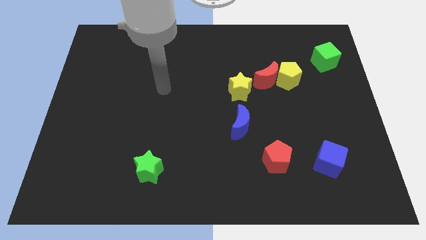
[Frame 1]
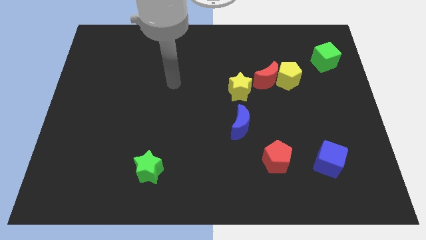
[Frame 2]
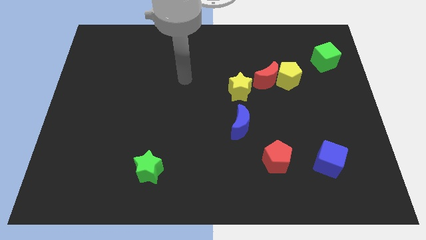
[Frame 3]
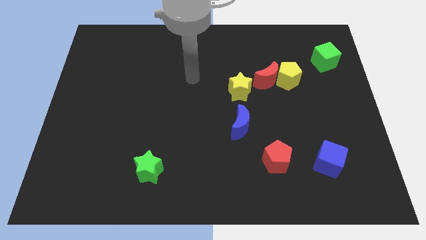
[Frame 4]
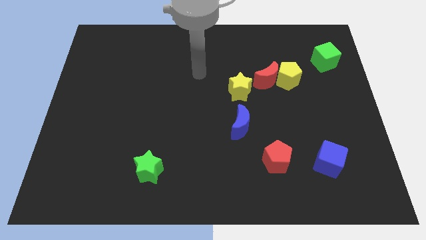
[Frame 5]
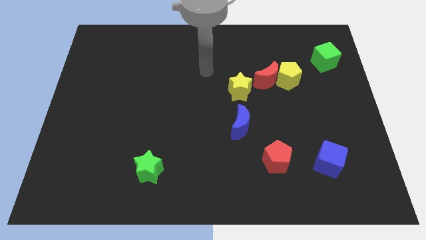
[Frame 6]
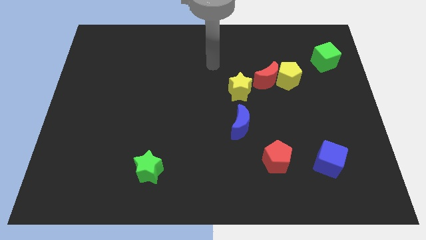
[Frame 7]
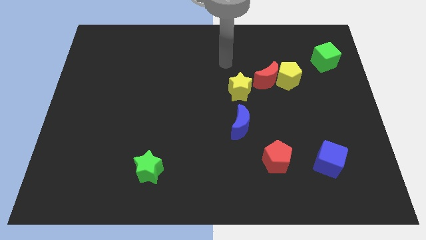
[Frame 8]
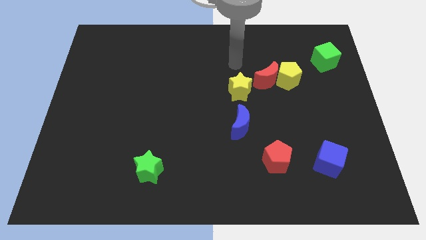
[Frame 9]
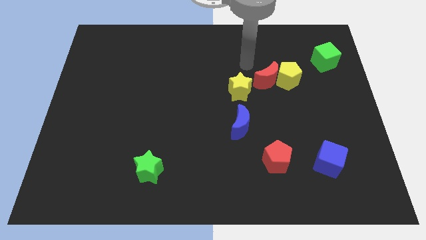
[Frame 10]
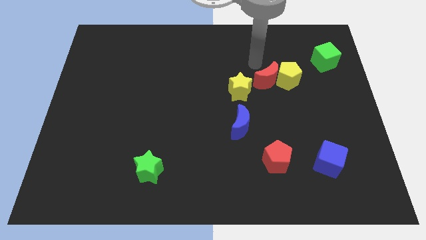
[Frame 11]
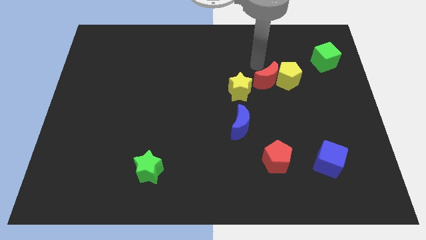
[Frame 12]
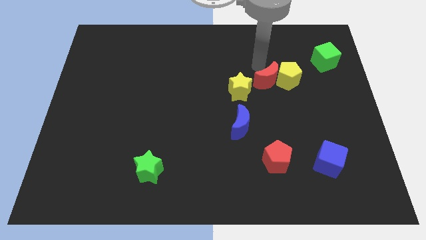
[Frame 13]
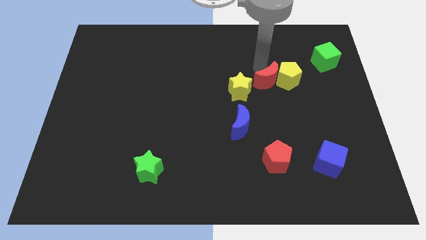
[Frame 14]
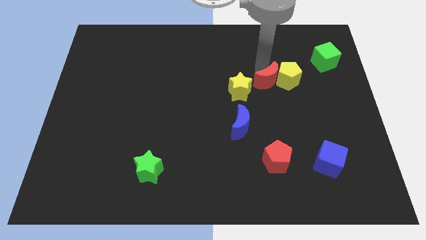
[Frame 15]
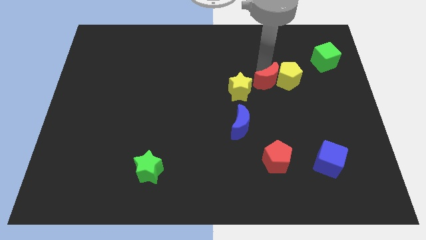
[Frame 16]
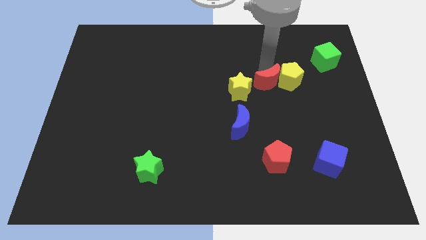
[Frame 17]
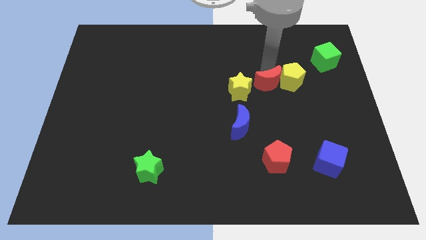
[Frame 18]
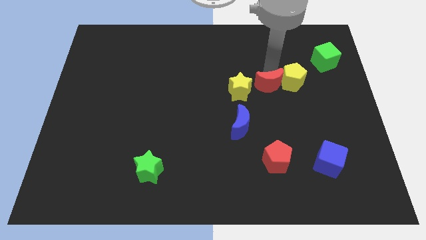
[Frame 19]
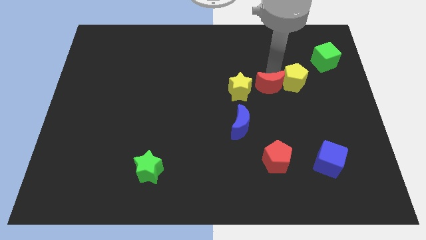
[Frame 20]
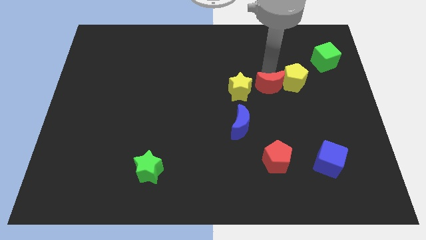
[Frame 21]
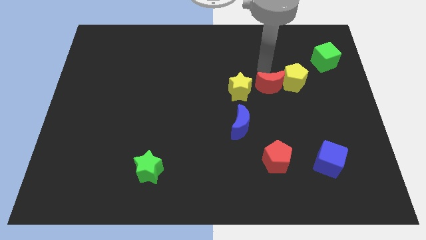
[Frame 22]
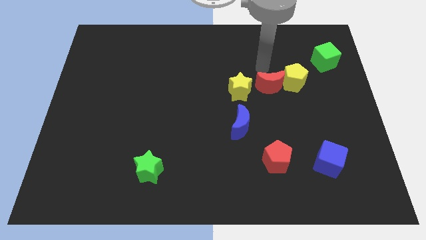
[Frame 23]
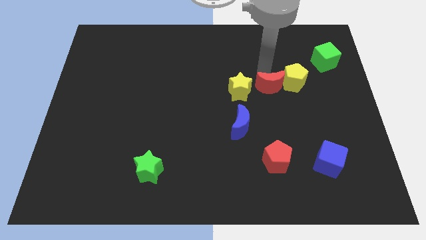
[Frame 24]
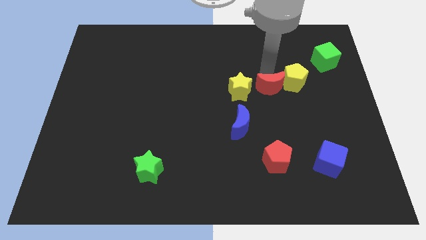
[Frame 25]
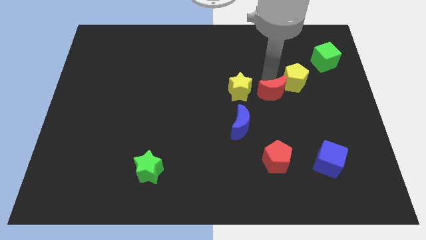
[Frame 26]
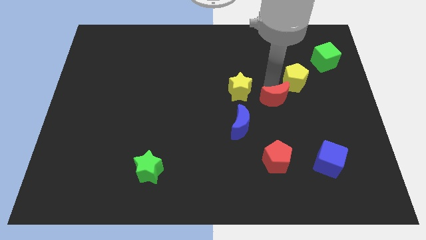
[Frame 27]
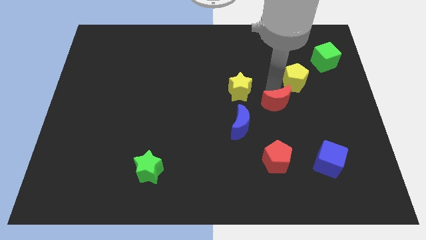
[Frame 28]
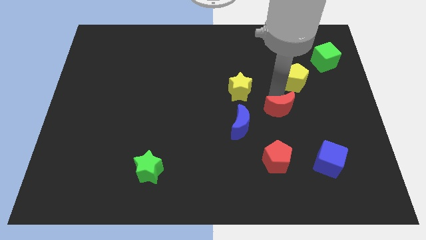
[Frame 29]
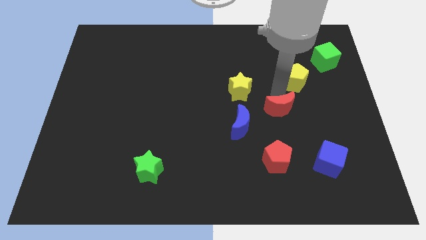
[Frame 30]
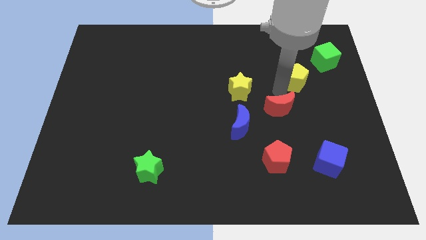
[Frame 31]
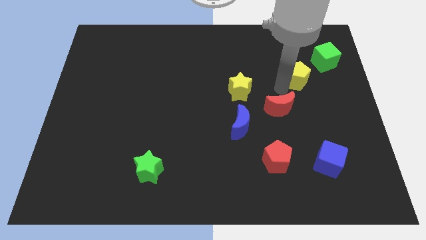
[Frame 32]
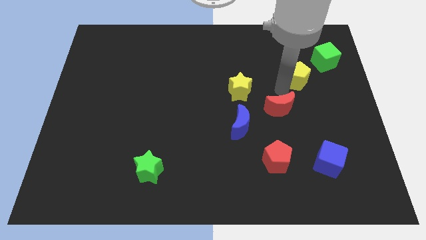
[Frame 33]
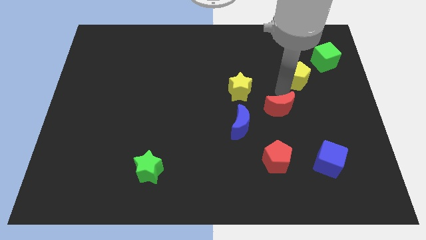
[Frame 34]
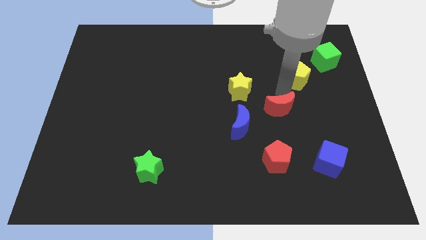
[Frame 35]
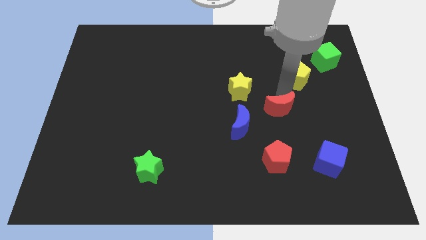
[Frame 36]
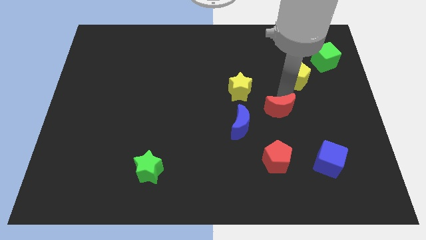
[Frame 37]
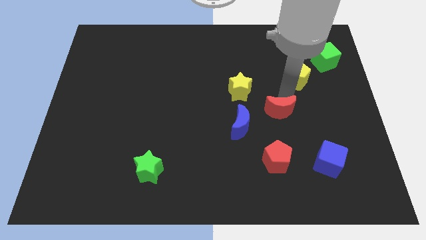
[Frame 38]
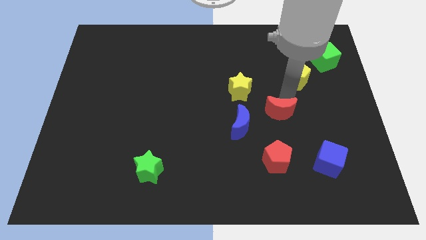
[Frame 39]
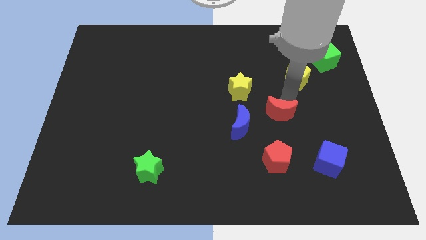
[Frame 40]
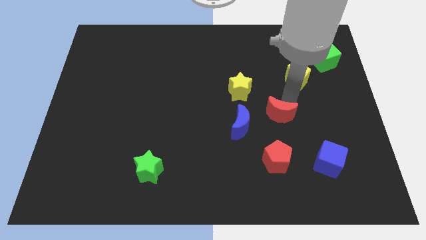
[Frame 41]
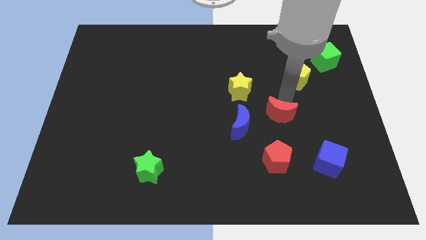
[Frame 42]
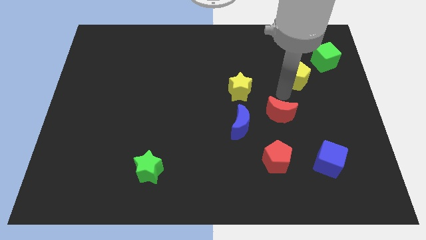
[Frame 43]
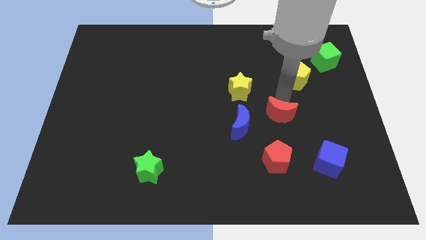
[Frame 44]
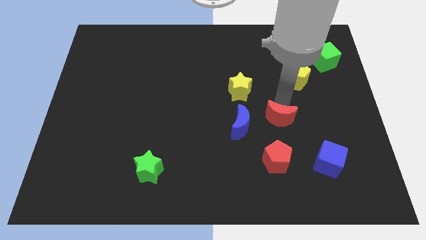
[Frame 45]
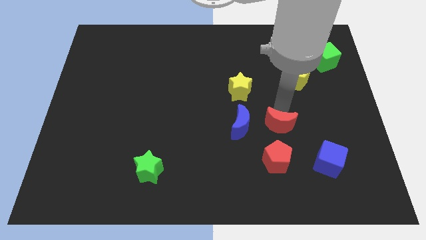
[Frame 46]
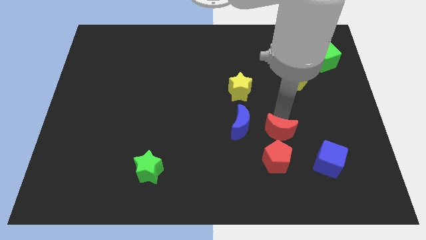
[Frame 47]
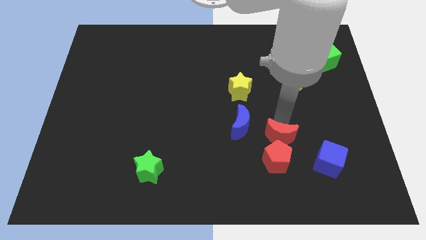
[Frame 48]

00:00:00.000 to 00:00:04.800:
push the red moon towards the red pentagon

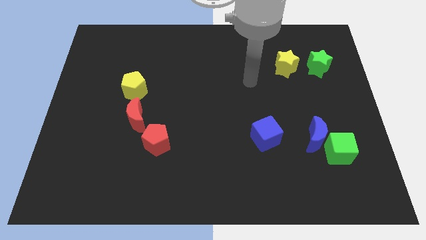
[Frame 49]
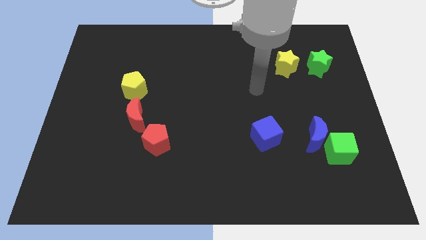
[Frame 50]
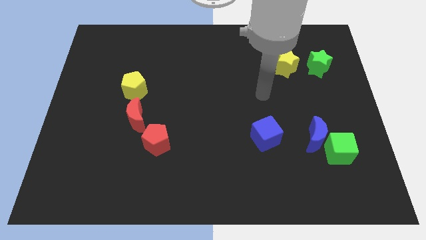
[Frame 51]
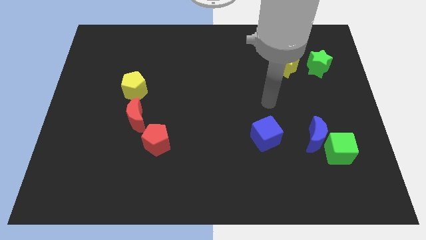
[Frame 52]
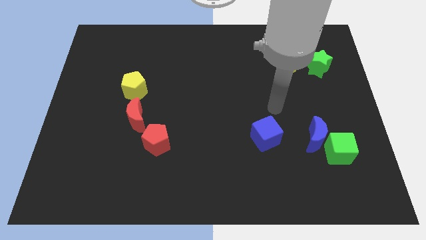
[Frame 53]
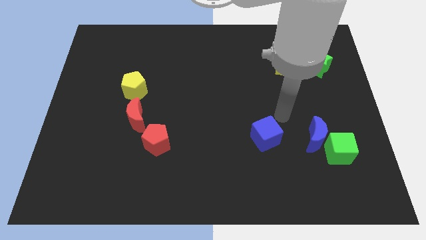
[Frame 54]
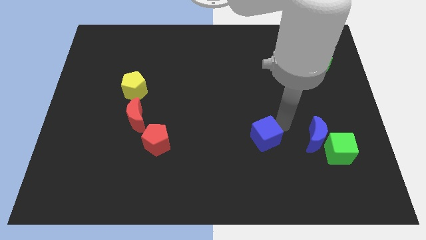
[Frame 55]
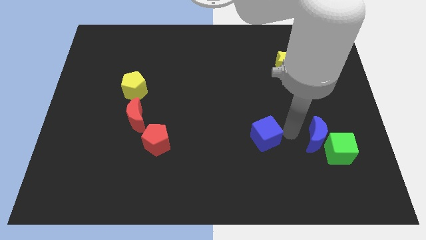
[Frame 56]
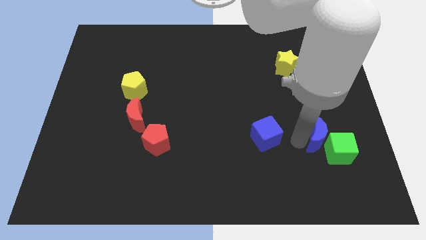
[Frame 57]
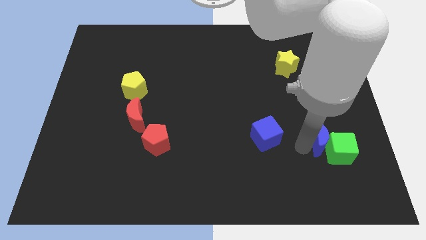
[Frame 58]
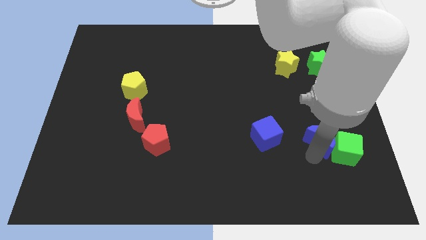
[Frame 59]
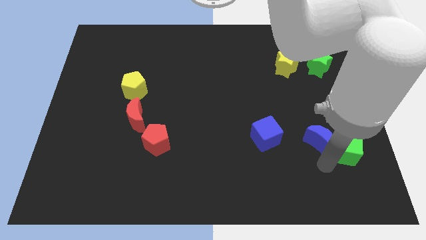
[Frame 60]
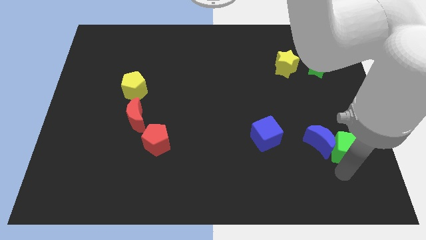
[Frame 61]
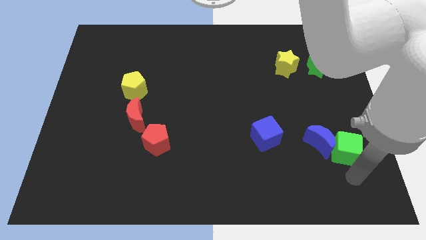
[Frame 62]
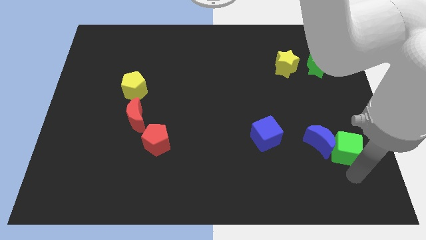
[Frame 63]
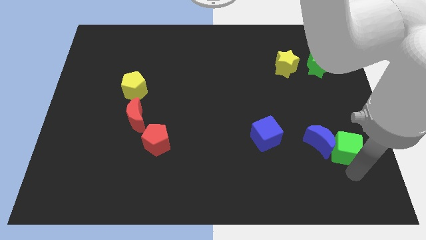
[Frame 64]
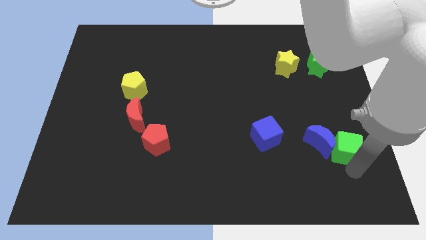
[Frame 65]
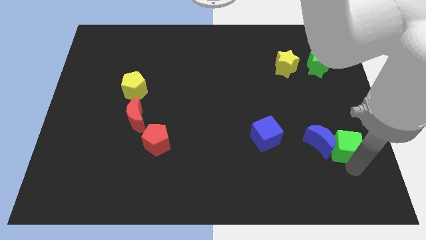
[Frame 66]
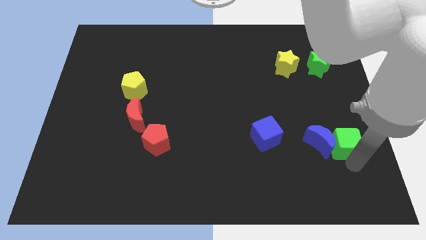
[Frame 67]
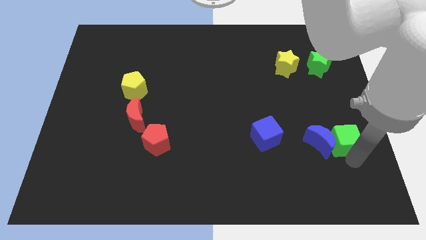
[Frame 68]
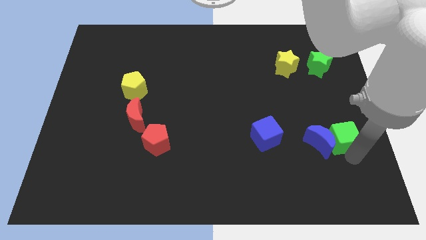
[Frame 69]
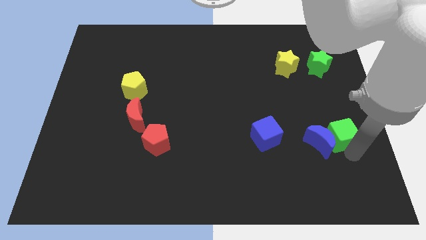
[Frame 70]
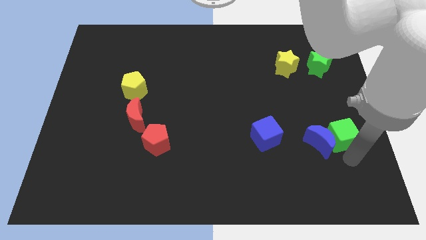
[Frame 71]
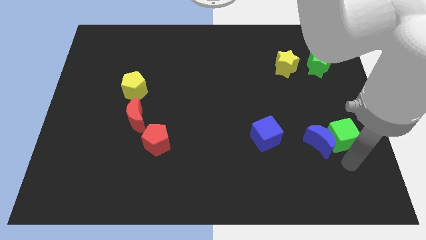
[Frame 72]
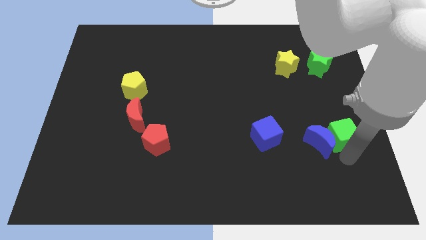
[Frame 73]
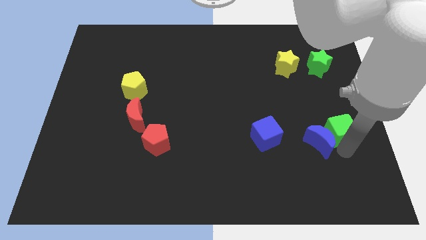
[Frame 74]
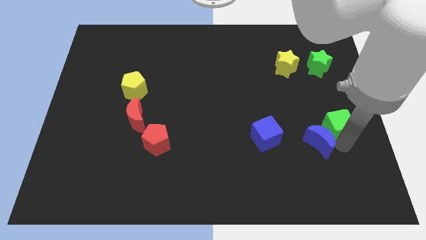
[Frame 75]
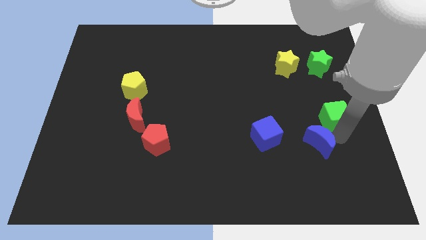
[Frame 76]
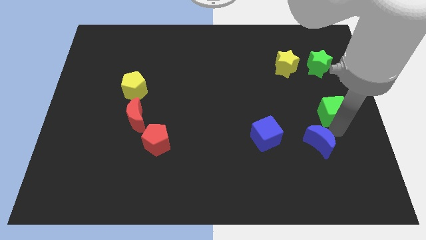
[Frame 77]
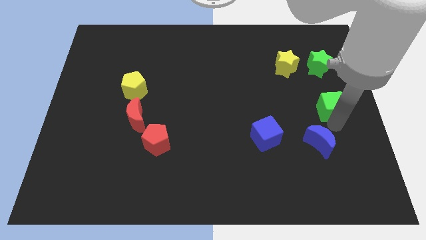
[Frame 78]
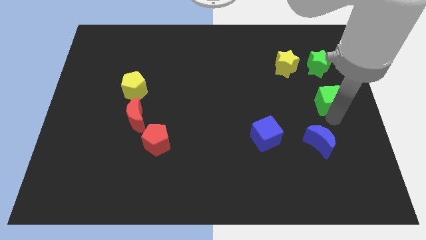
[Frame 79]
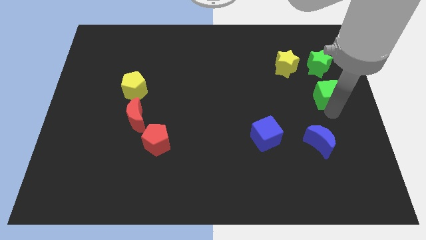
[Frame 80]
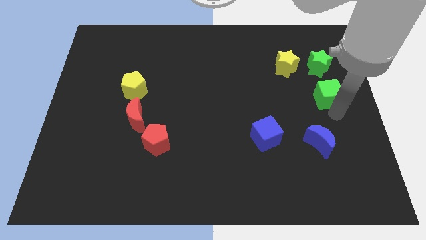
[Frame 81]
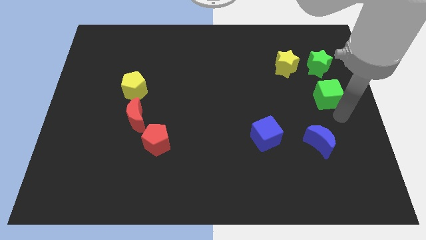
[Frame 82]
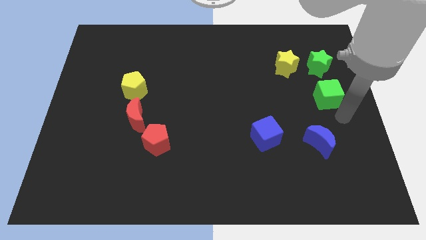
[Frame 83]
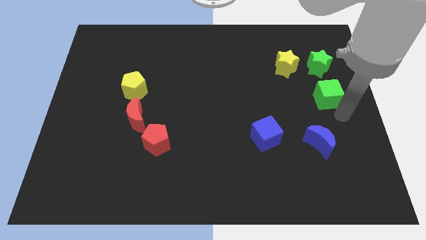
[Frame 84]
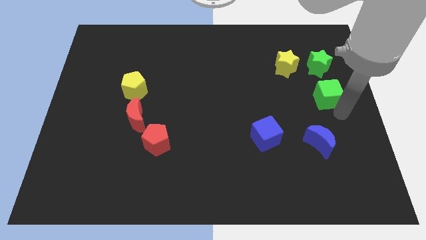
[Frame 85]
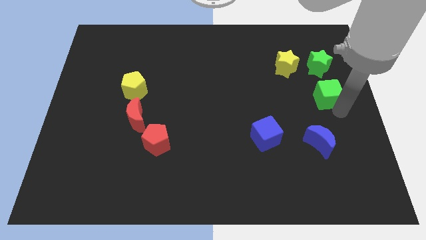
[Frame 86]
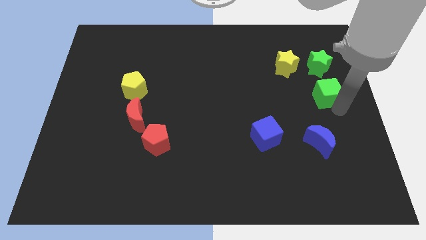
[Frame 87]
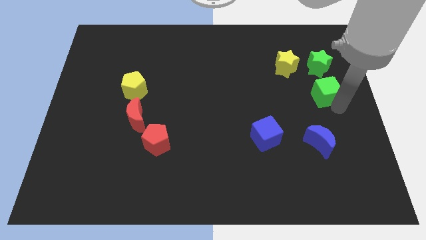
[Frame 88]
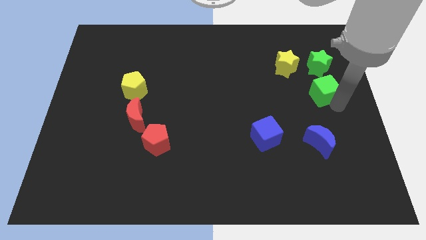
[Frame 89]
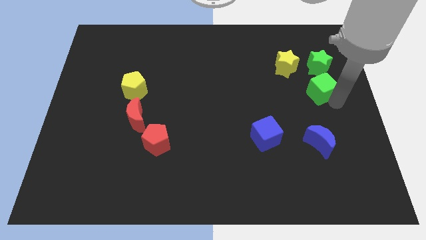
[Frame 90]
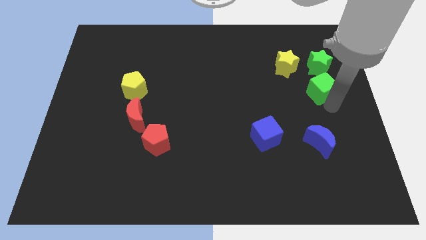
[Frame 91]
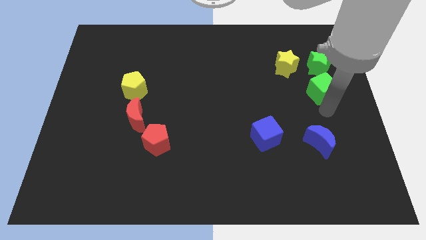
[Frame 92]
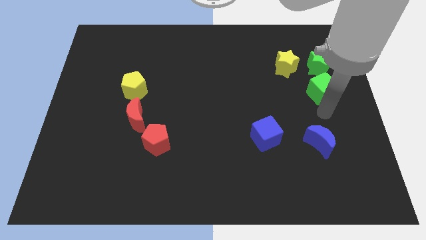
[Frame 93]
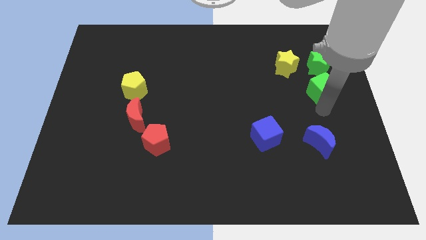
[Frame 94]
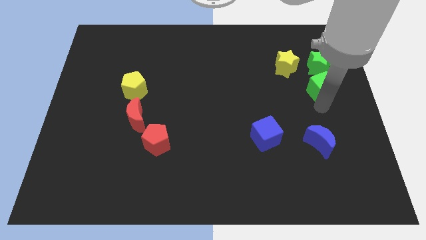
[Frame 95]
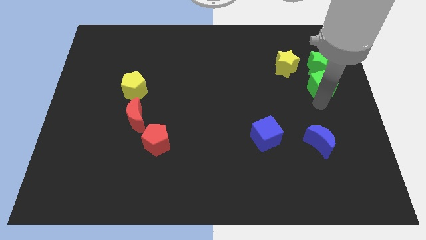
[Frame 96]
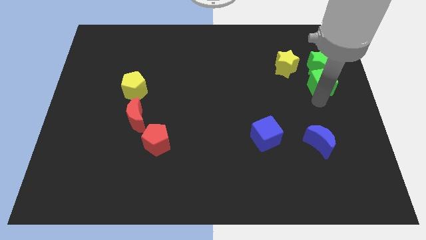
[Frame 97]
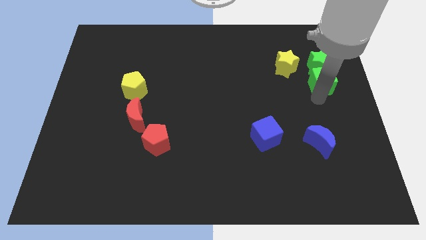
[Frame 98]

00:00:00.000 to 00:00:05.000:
slide the green cube towards the green star
